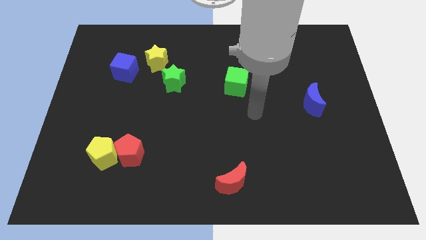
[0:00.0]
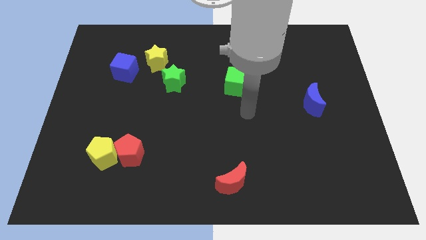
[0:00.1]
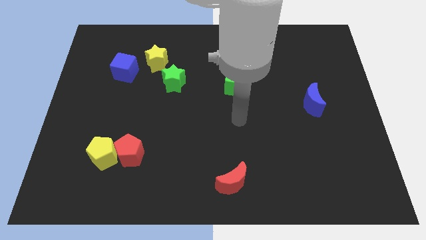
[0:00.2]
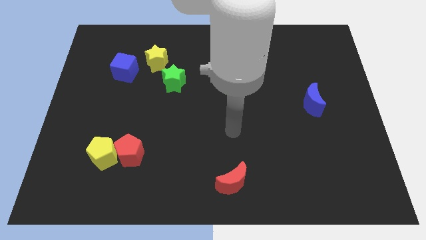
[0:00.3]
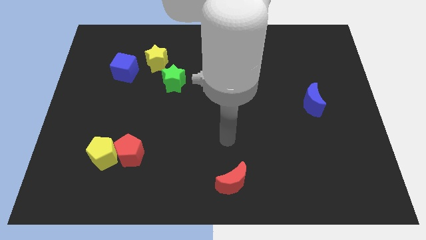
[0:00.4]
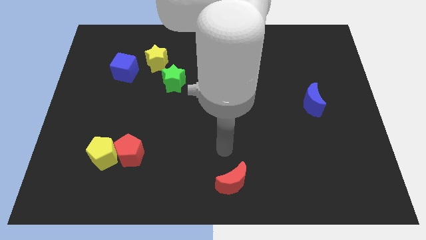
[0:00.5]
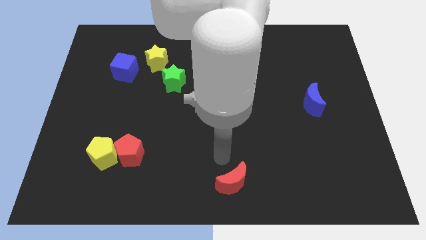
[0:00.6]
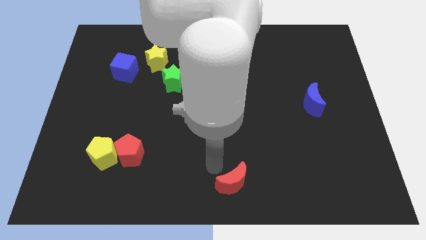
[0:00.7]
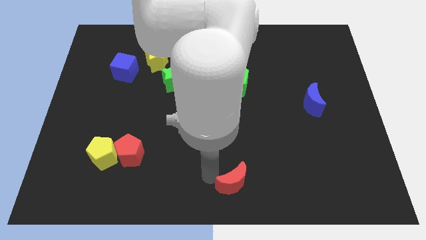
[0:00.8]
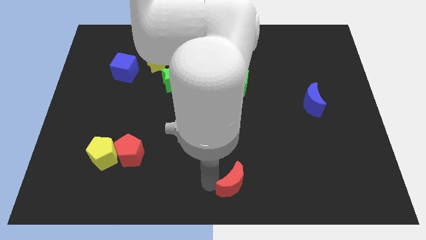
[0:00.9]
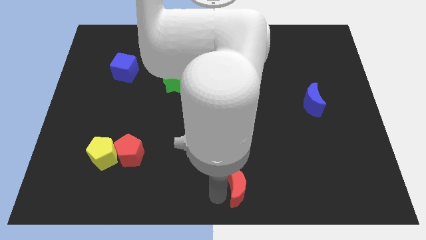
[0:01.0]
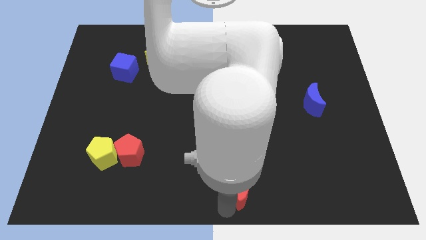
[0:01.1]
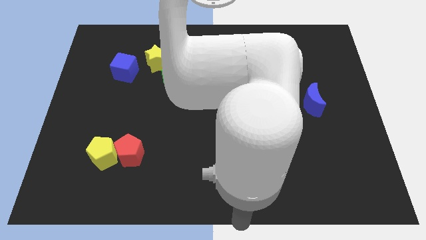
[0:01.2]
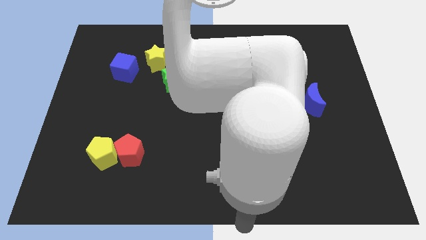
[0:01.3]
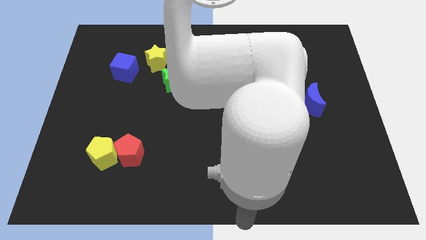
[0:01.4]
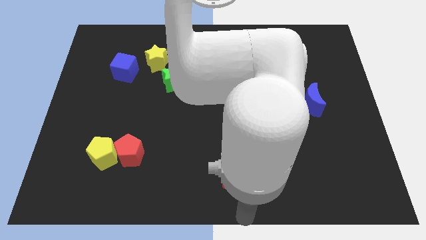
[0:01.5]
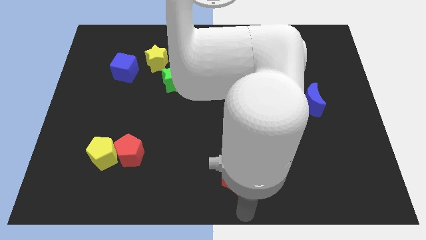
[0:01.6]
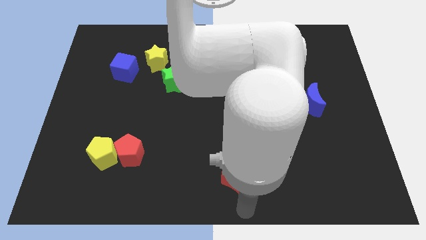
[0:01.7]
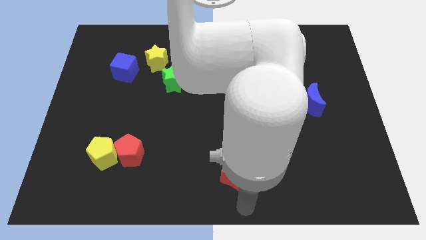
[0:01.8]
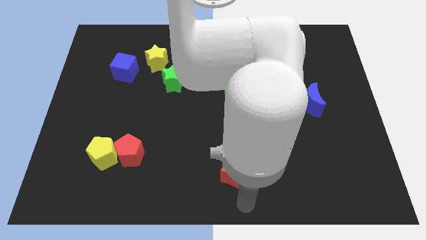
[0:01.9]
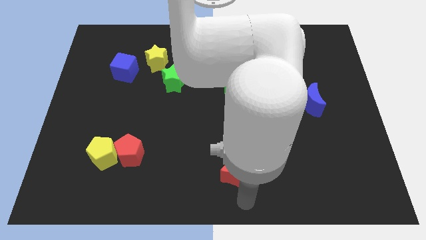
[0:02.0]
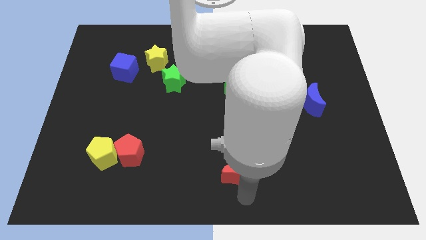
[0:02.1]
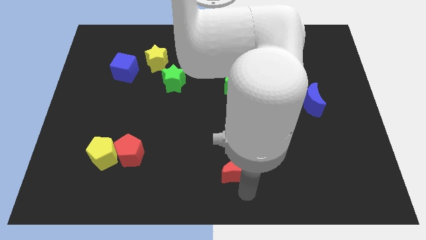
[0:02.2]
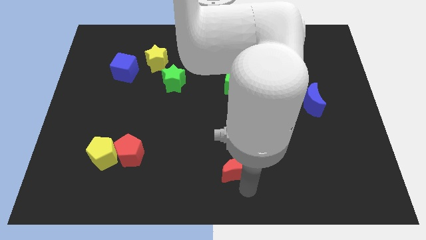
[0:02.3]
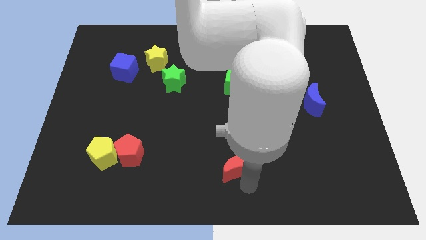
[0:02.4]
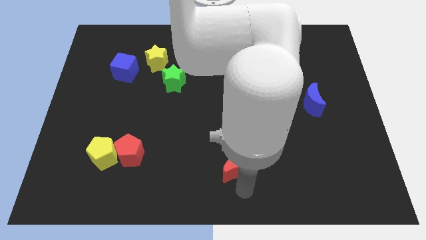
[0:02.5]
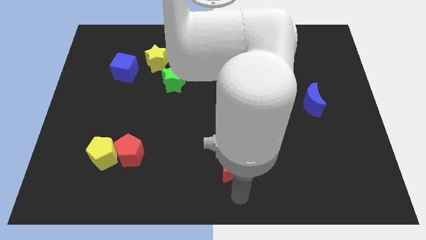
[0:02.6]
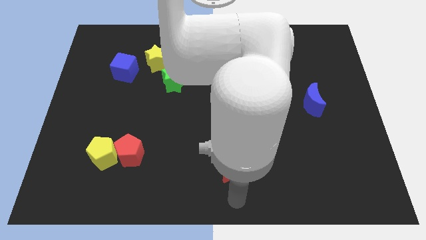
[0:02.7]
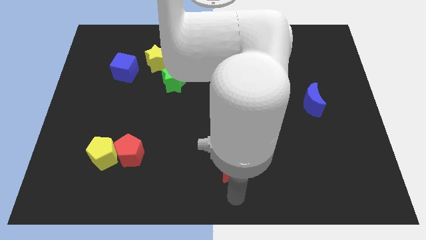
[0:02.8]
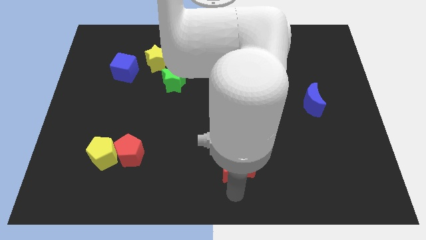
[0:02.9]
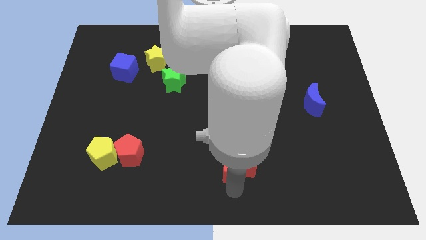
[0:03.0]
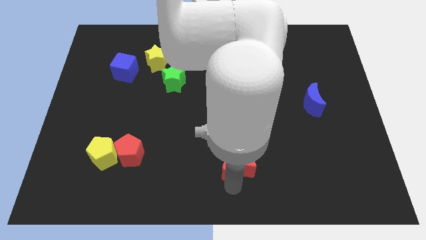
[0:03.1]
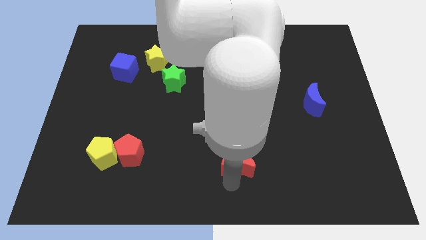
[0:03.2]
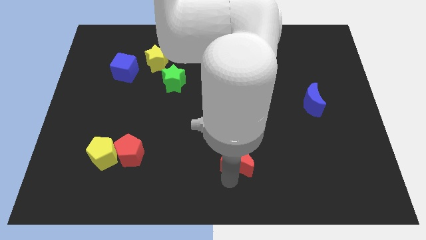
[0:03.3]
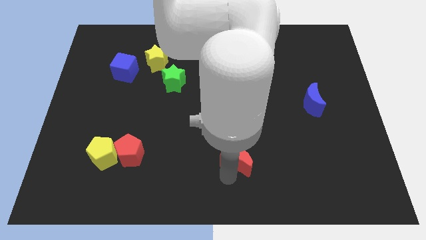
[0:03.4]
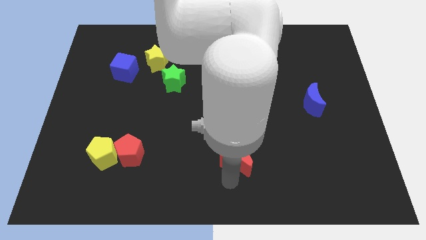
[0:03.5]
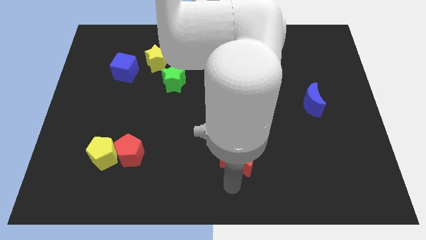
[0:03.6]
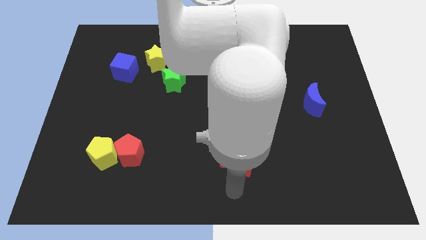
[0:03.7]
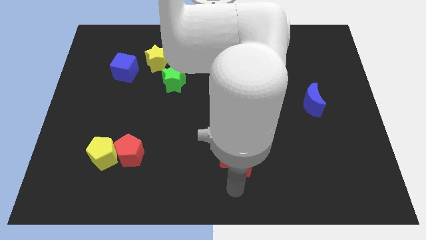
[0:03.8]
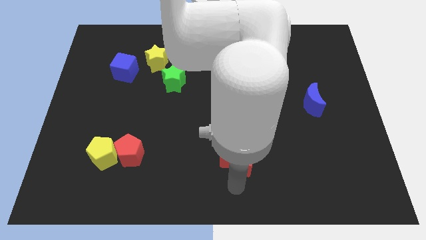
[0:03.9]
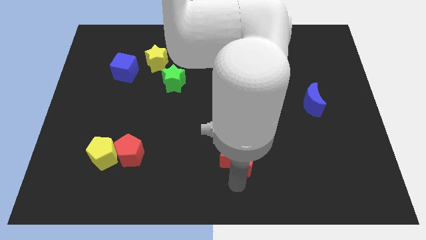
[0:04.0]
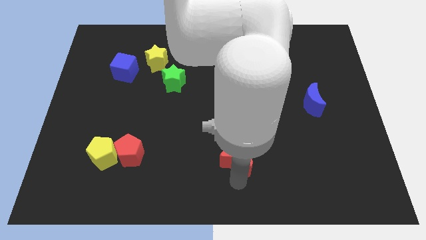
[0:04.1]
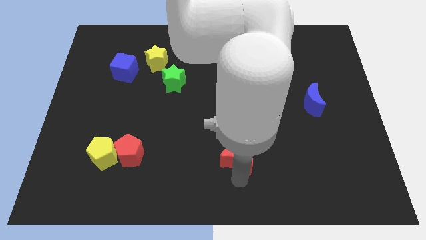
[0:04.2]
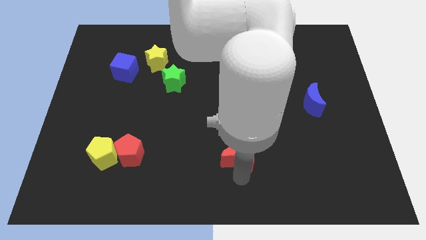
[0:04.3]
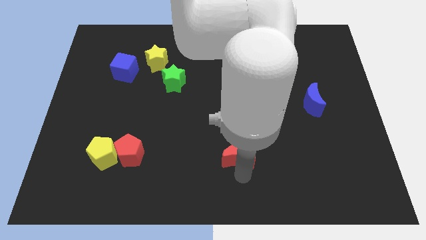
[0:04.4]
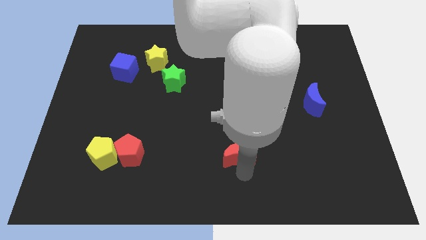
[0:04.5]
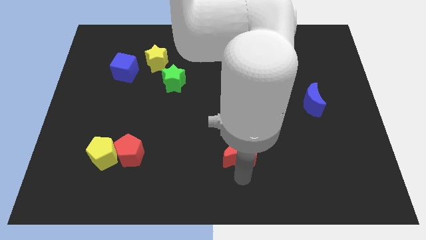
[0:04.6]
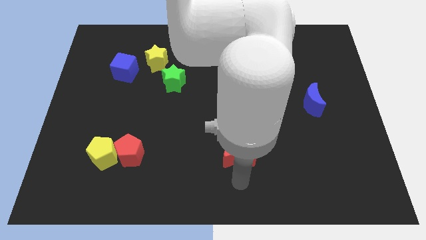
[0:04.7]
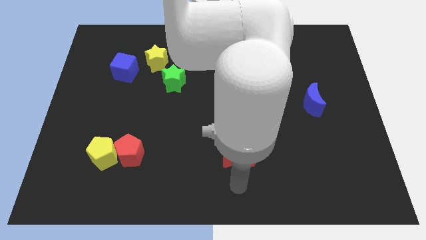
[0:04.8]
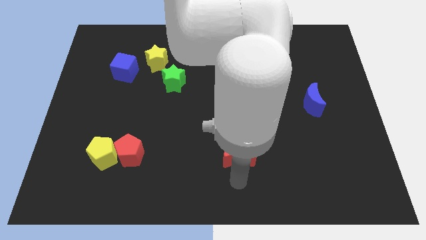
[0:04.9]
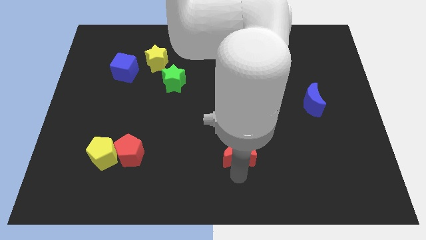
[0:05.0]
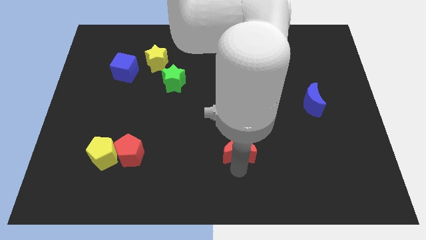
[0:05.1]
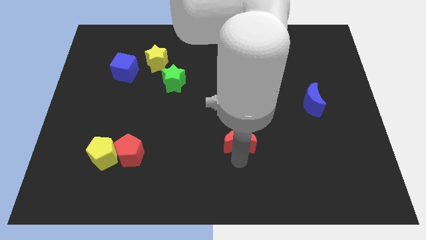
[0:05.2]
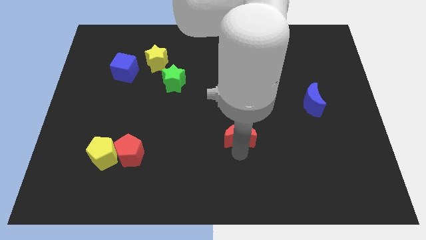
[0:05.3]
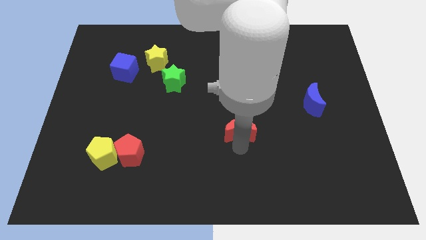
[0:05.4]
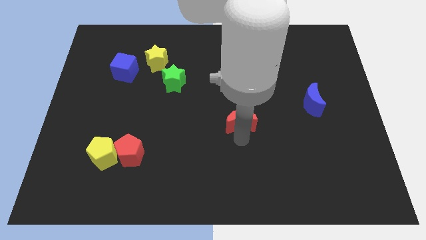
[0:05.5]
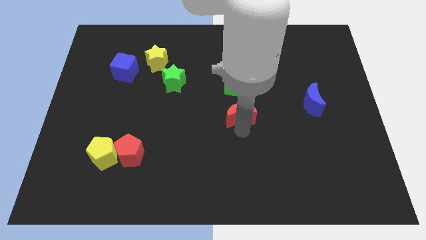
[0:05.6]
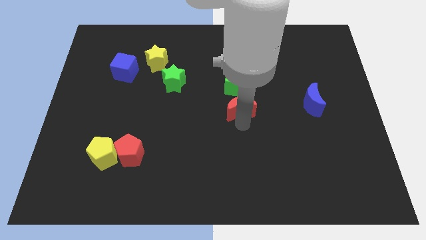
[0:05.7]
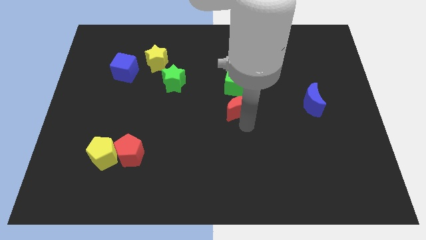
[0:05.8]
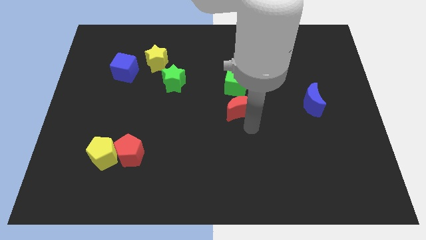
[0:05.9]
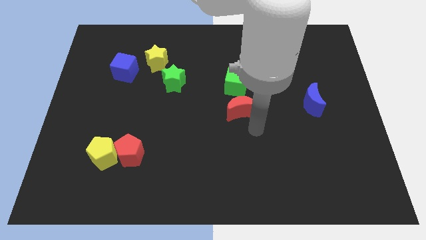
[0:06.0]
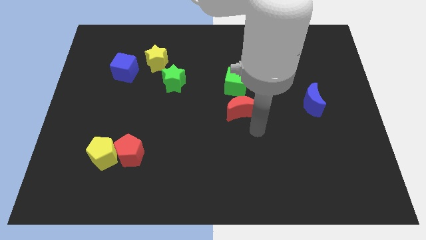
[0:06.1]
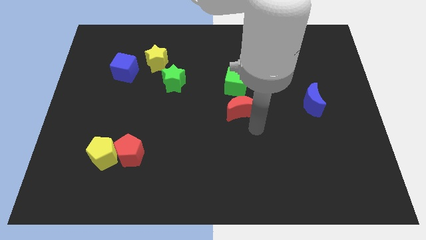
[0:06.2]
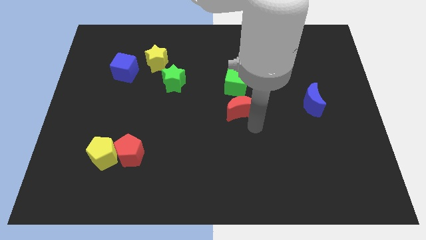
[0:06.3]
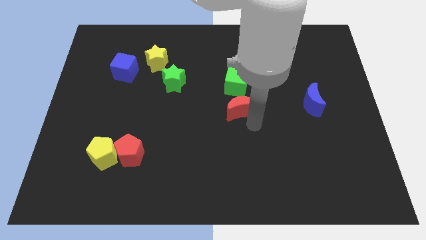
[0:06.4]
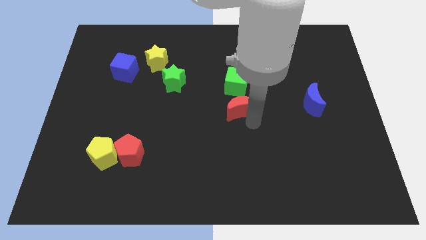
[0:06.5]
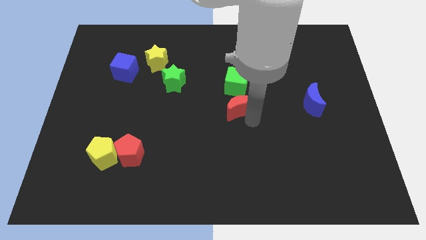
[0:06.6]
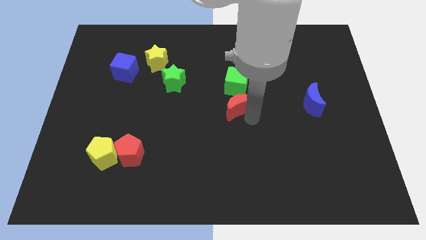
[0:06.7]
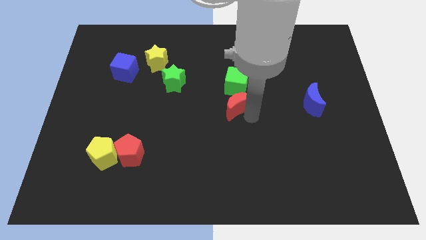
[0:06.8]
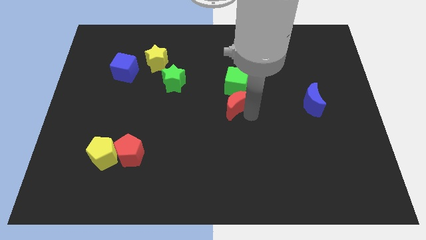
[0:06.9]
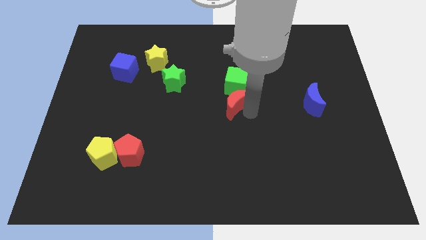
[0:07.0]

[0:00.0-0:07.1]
slide the red moon up

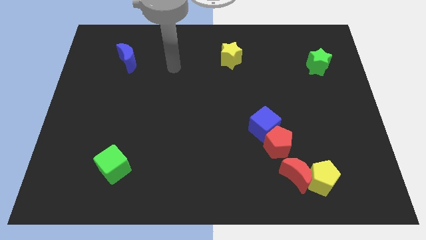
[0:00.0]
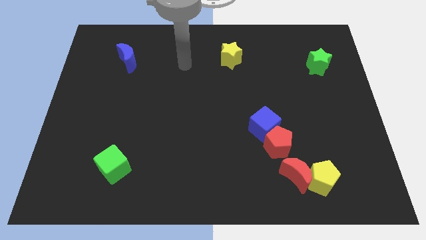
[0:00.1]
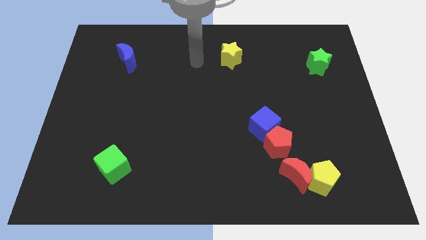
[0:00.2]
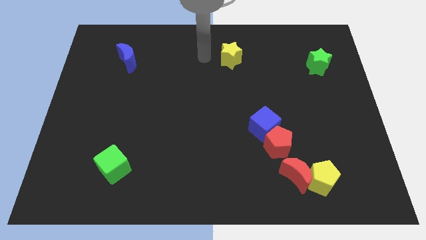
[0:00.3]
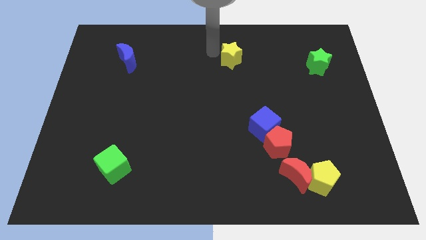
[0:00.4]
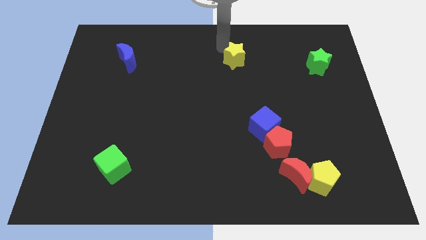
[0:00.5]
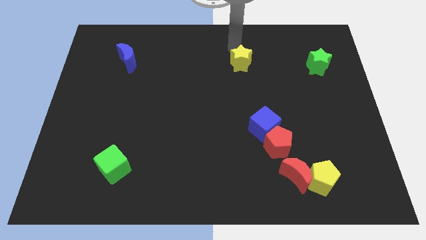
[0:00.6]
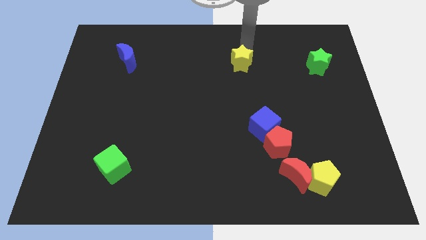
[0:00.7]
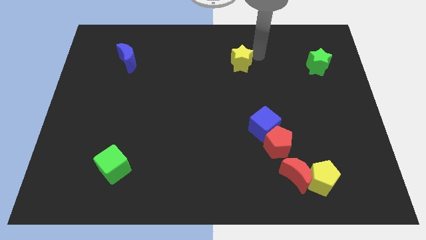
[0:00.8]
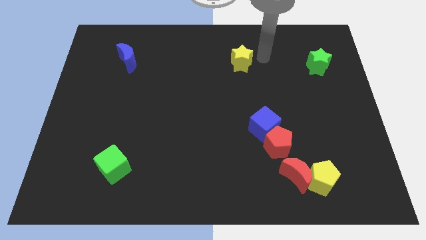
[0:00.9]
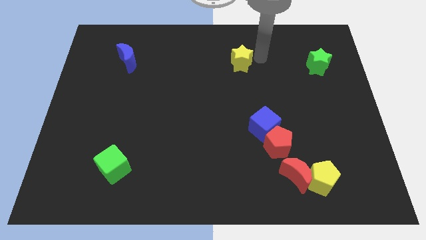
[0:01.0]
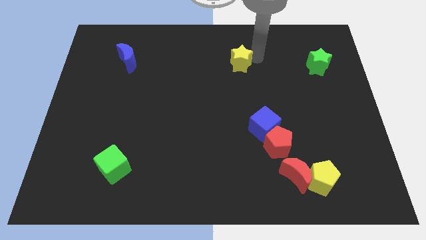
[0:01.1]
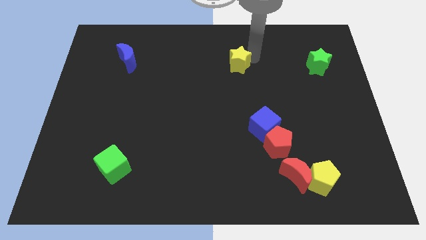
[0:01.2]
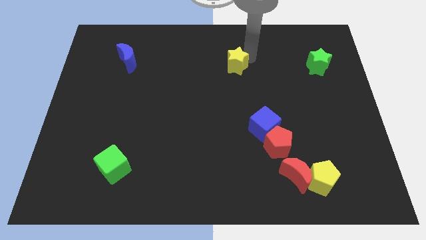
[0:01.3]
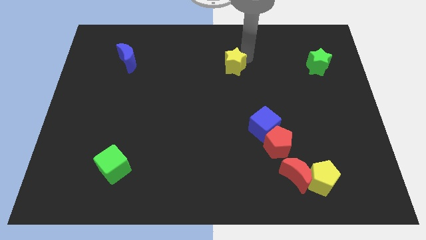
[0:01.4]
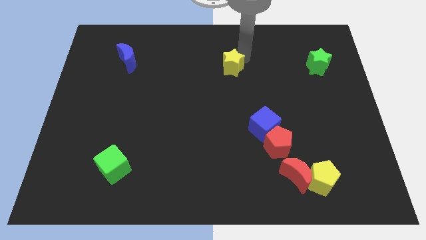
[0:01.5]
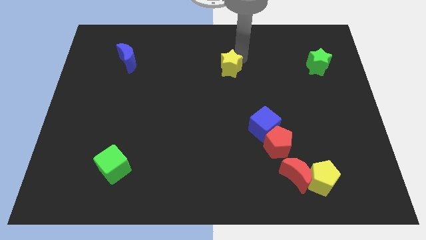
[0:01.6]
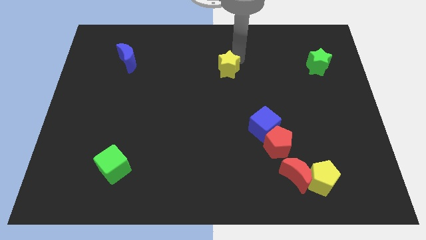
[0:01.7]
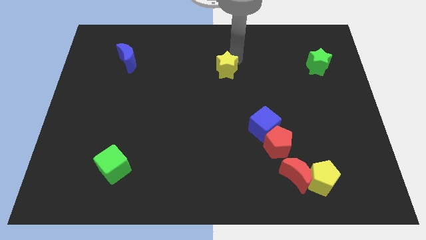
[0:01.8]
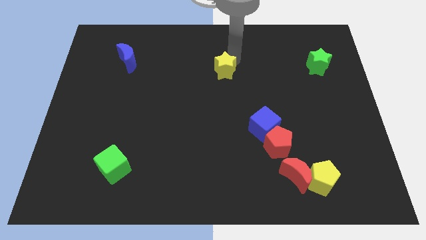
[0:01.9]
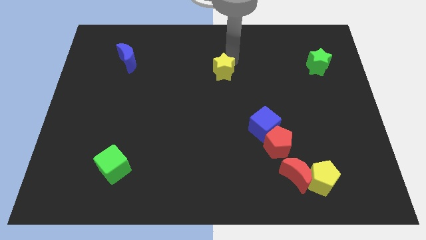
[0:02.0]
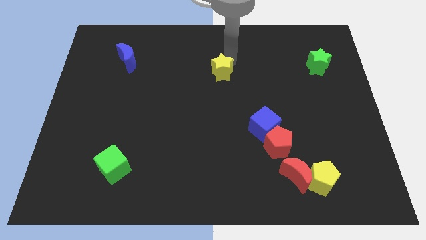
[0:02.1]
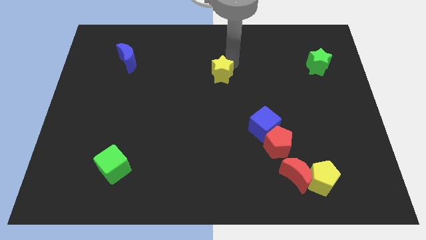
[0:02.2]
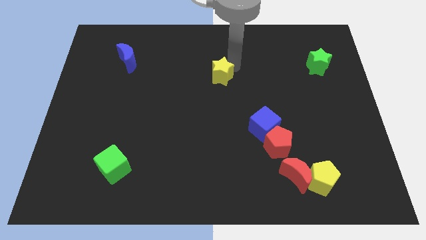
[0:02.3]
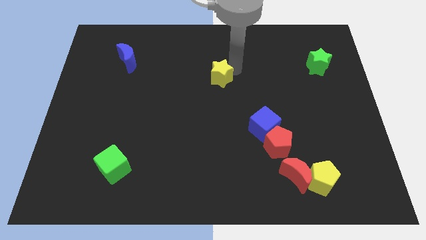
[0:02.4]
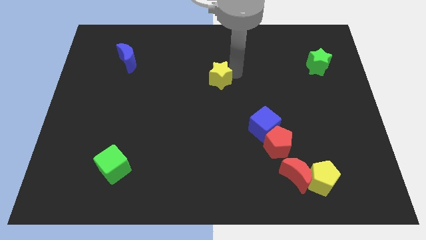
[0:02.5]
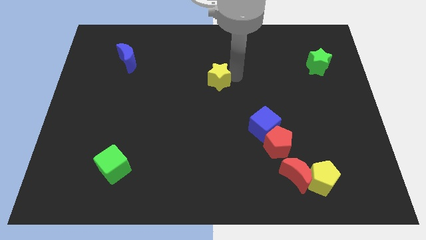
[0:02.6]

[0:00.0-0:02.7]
slightly push the yellow star down and to the left diagonally
